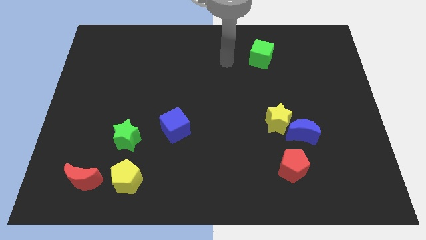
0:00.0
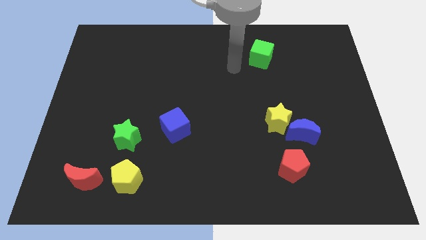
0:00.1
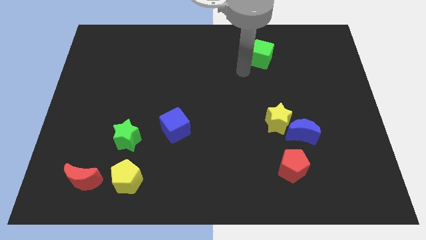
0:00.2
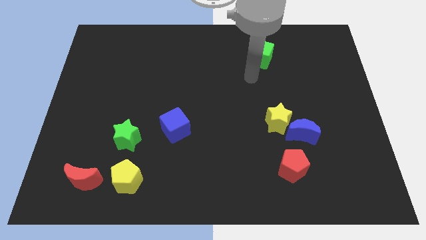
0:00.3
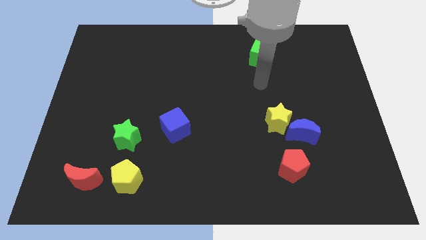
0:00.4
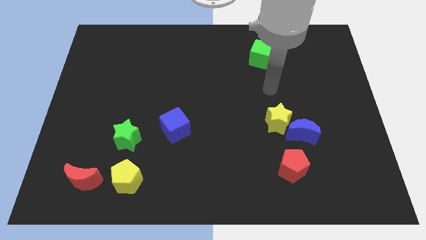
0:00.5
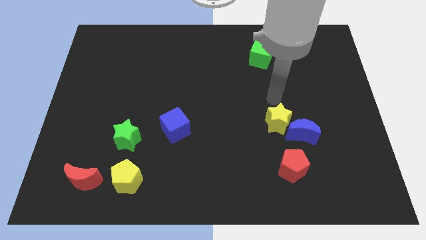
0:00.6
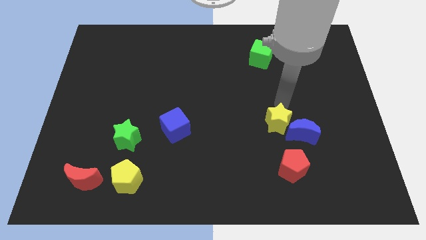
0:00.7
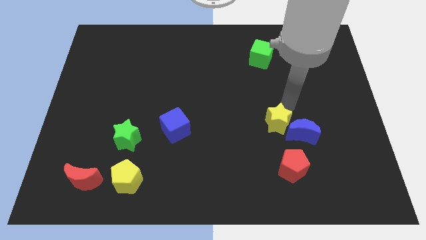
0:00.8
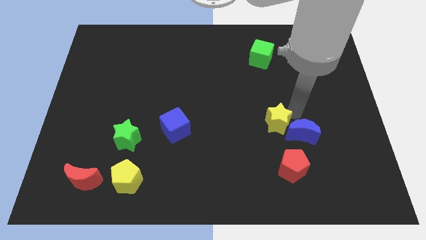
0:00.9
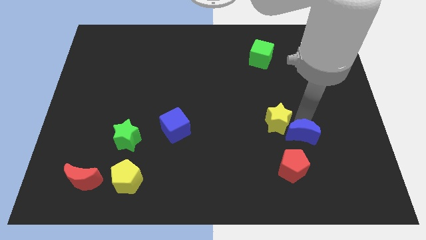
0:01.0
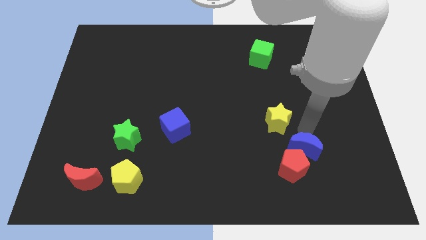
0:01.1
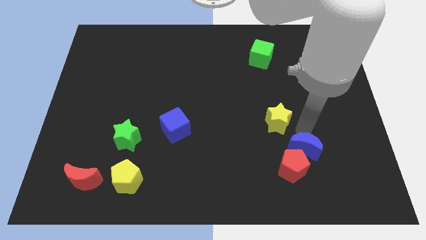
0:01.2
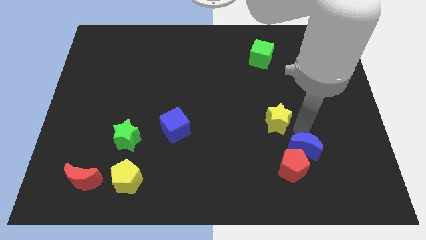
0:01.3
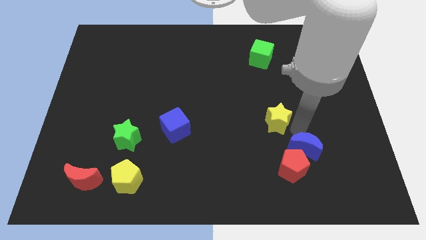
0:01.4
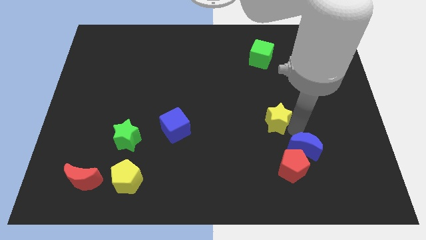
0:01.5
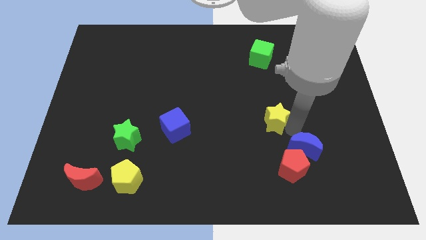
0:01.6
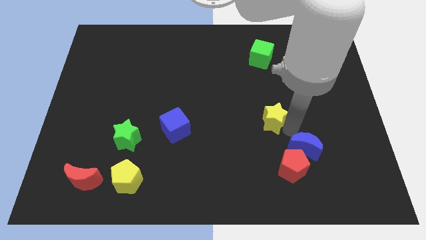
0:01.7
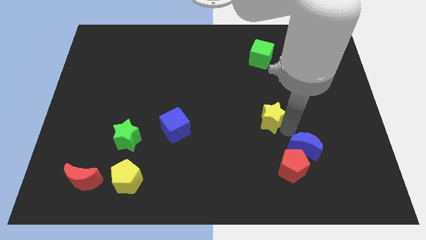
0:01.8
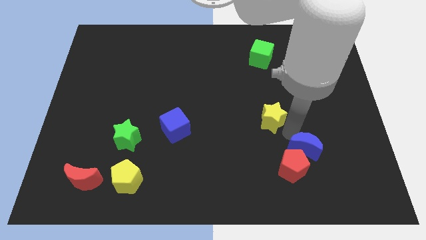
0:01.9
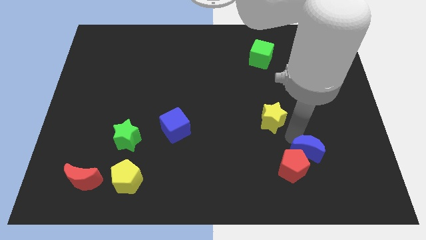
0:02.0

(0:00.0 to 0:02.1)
separate the yellow star from the blue moon

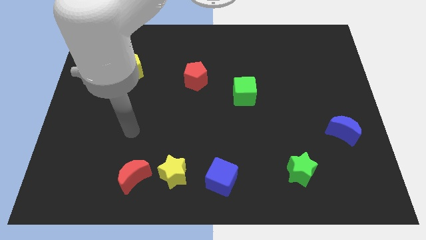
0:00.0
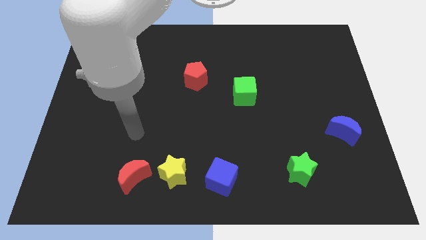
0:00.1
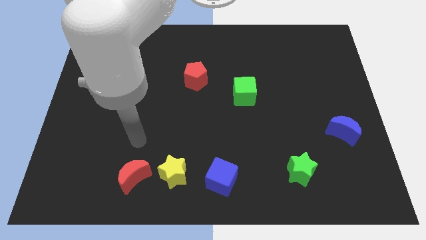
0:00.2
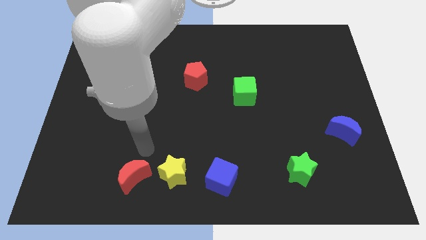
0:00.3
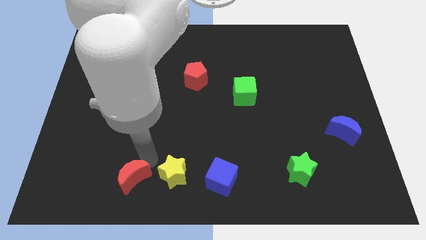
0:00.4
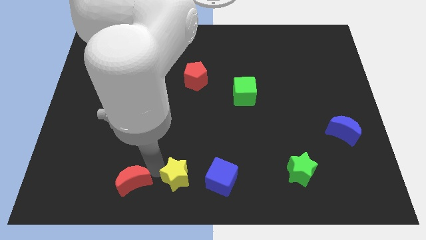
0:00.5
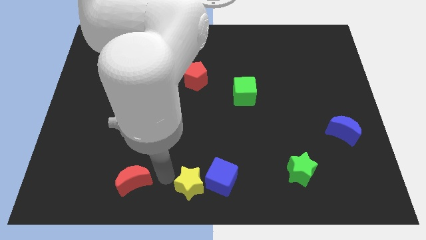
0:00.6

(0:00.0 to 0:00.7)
move the red moon away from the yellow star

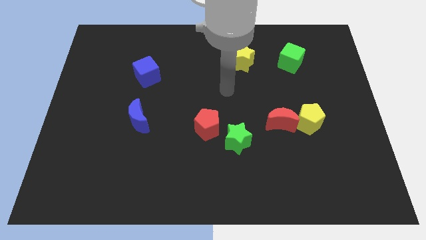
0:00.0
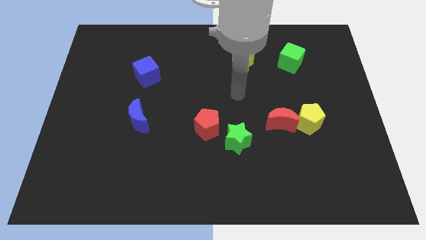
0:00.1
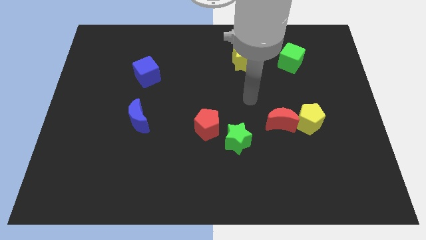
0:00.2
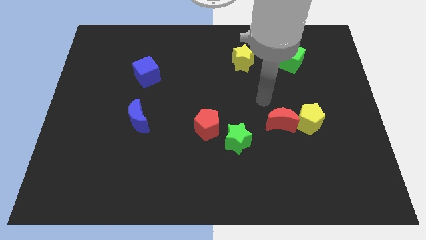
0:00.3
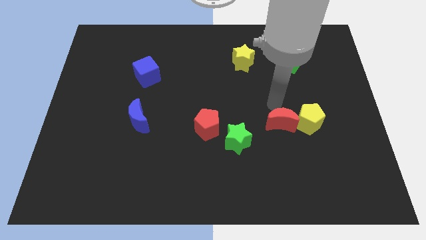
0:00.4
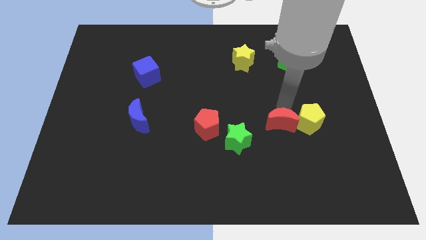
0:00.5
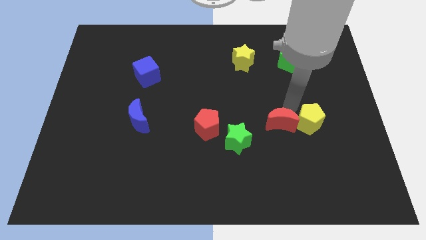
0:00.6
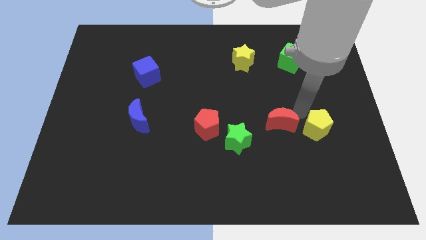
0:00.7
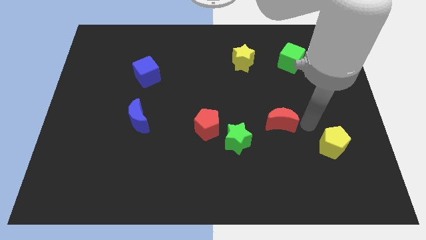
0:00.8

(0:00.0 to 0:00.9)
pull the red moon apart from the yellow pentagon

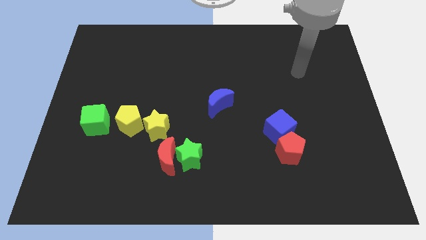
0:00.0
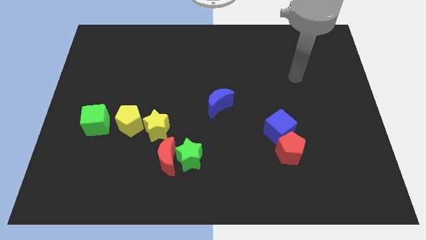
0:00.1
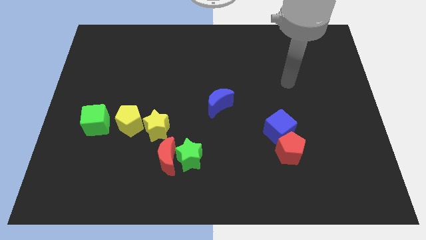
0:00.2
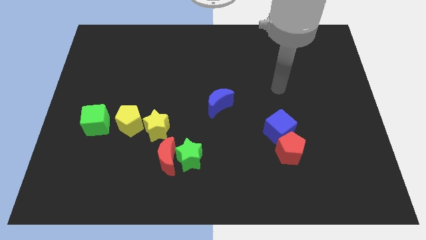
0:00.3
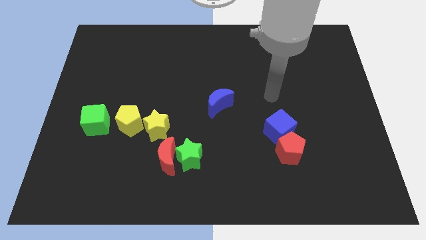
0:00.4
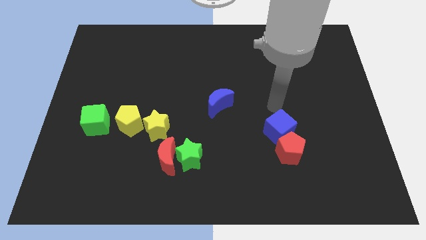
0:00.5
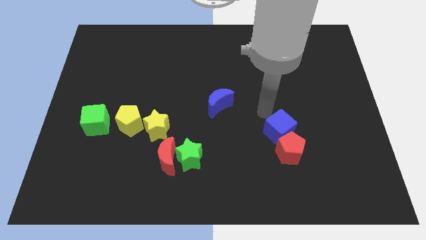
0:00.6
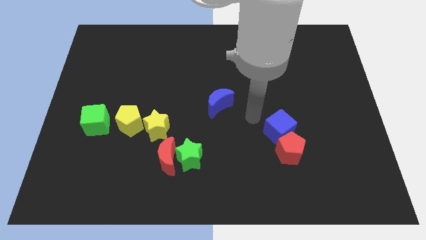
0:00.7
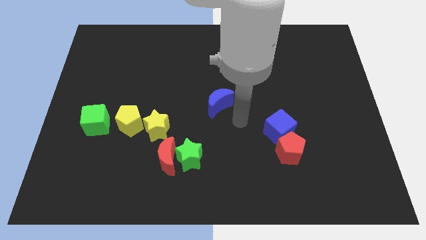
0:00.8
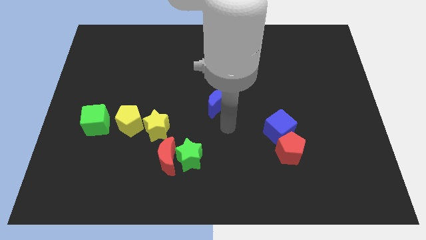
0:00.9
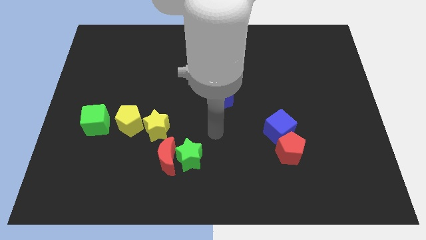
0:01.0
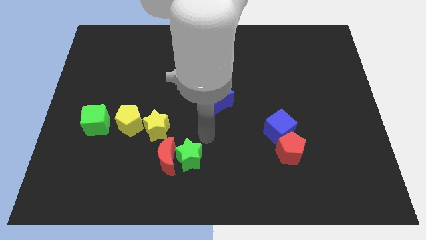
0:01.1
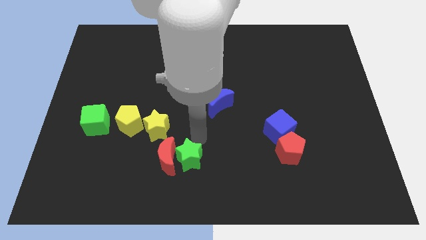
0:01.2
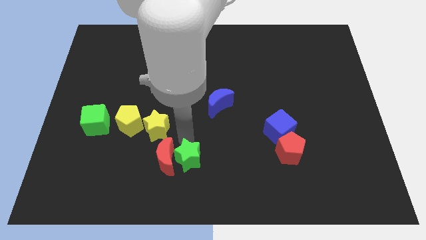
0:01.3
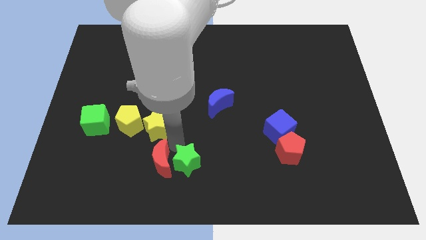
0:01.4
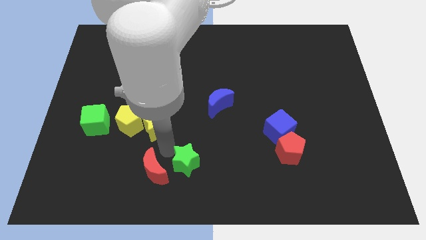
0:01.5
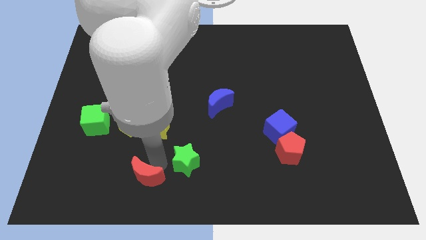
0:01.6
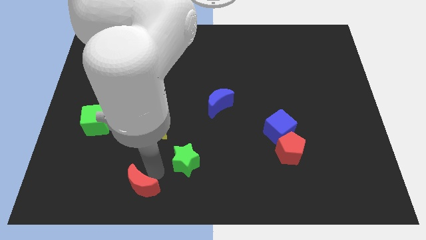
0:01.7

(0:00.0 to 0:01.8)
move the green star away from the red moon

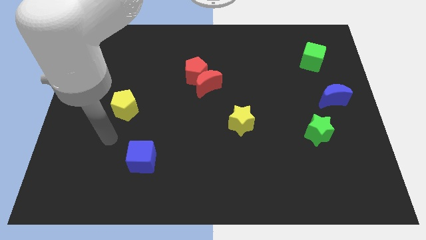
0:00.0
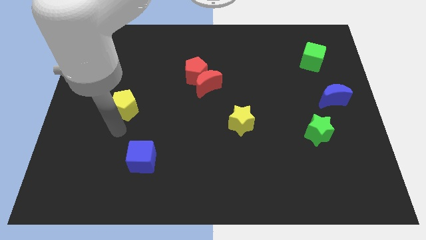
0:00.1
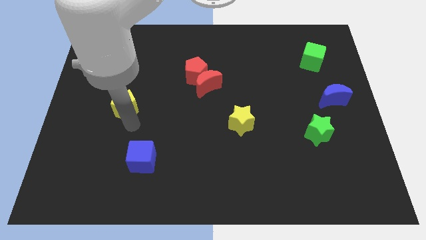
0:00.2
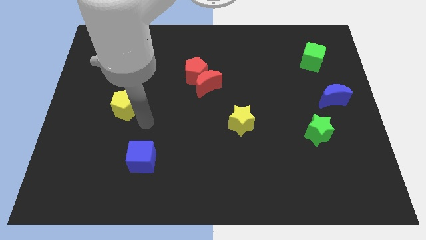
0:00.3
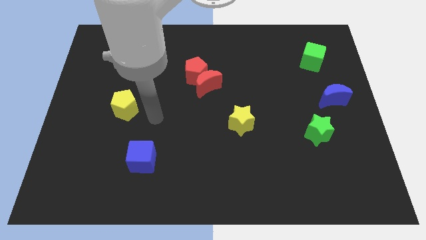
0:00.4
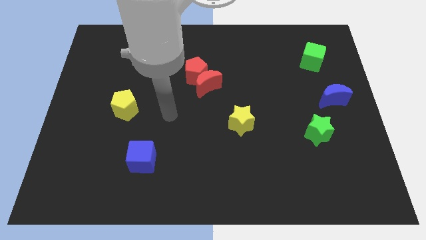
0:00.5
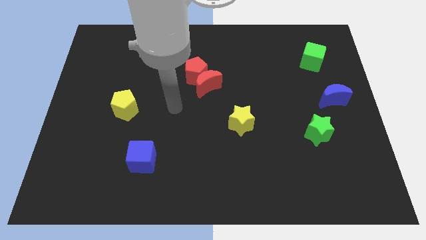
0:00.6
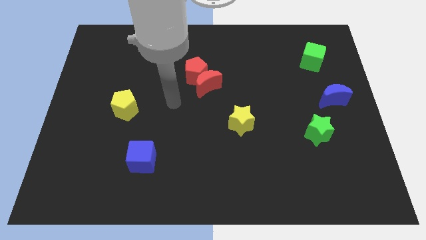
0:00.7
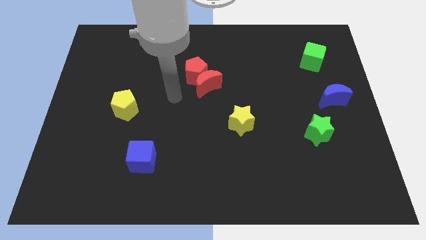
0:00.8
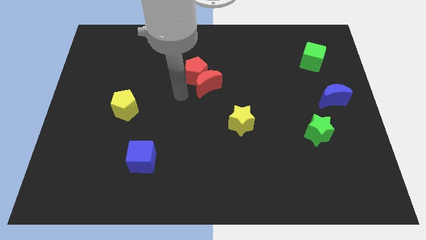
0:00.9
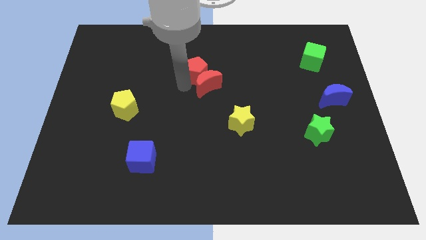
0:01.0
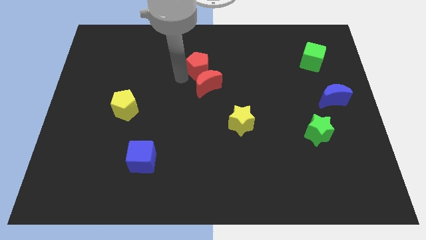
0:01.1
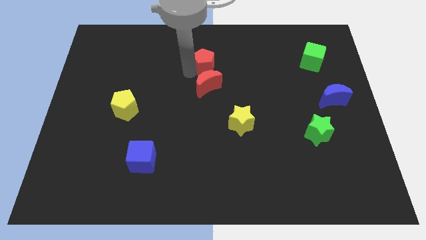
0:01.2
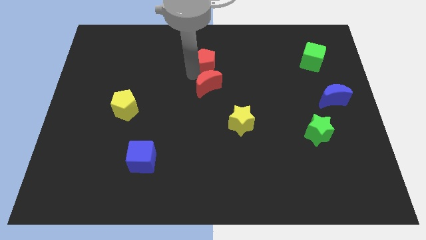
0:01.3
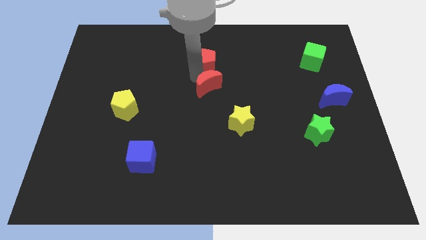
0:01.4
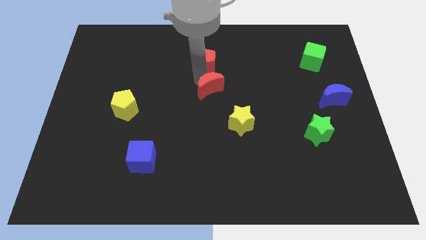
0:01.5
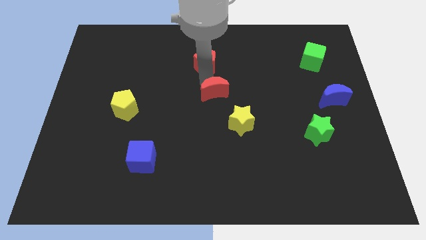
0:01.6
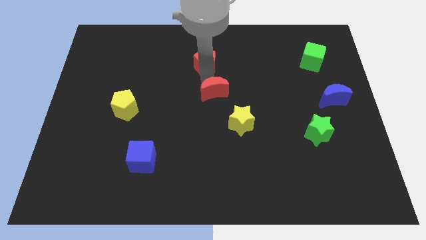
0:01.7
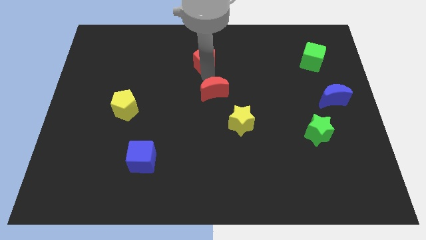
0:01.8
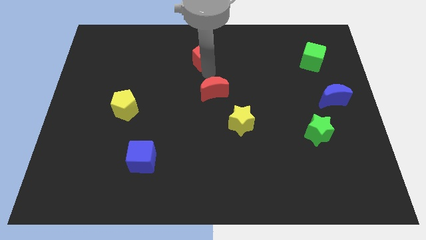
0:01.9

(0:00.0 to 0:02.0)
move the red moon away from the red pentagon

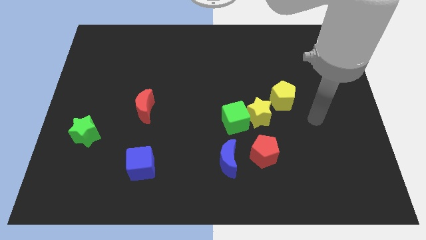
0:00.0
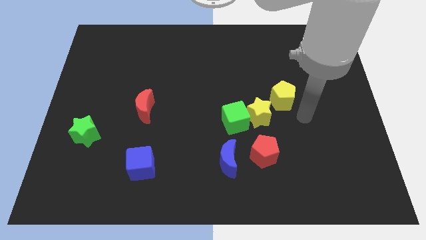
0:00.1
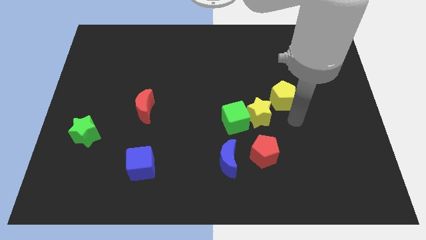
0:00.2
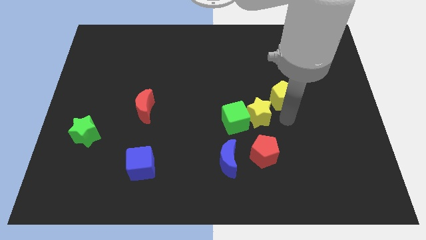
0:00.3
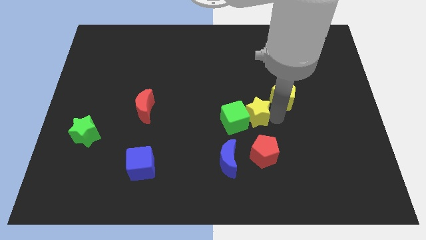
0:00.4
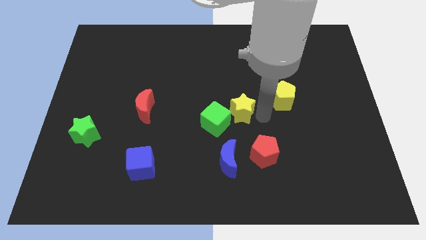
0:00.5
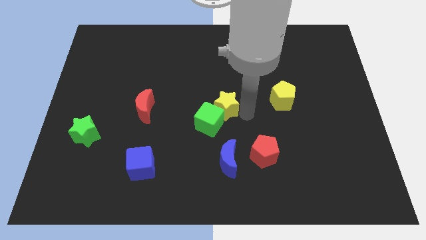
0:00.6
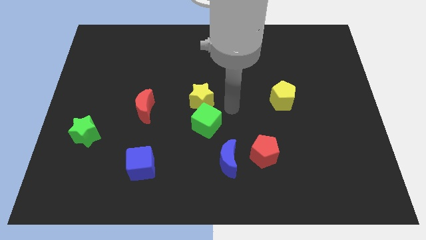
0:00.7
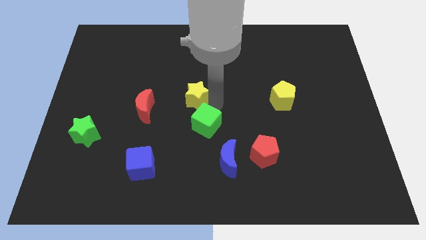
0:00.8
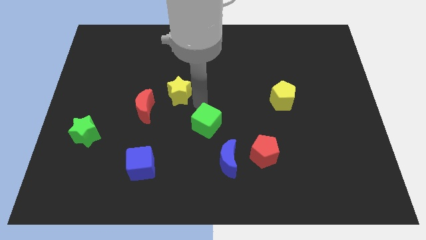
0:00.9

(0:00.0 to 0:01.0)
separate the green cube from the yellow star

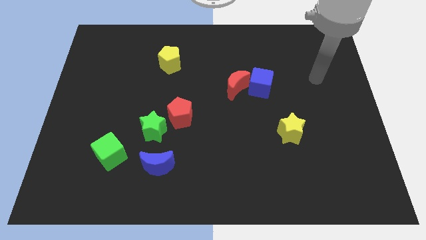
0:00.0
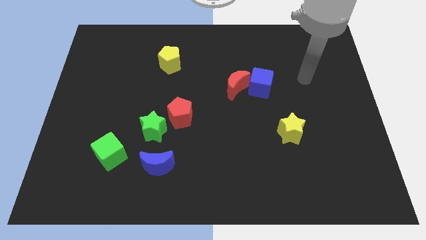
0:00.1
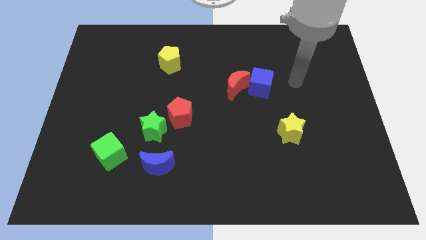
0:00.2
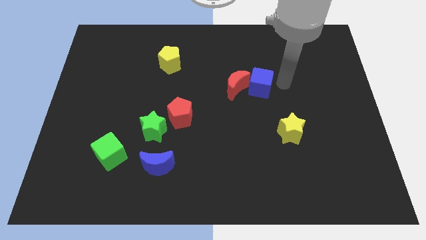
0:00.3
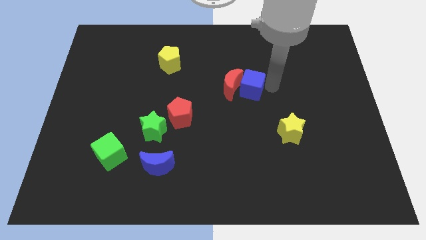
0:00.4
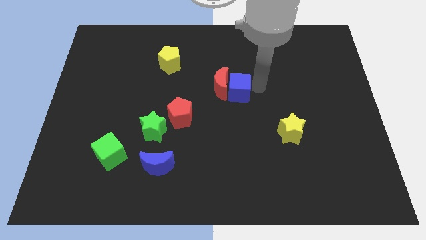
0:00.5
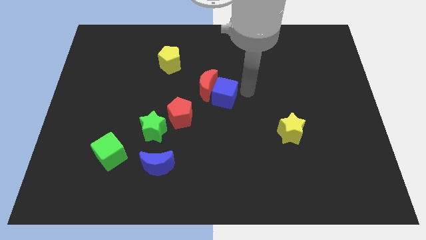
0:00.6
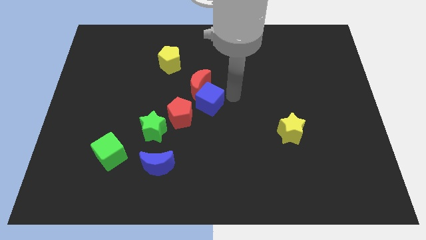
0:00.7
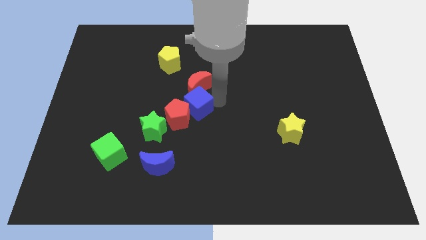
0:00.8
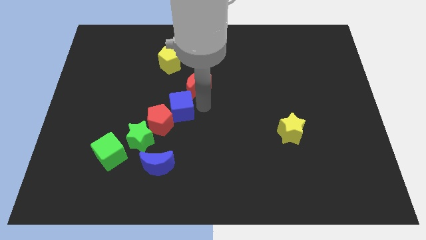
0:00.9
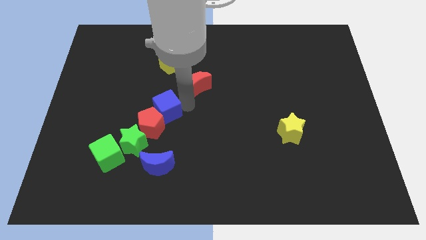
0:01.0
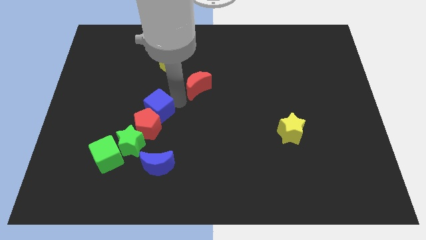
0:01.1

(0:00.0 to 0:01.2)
separate the red moon from the blue cube
